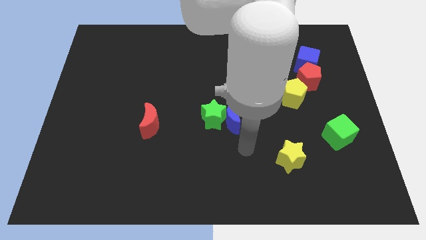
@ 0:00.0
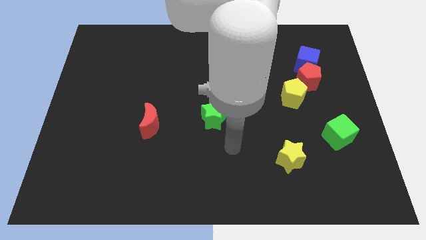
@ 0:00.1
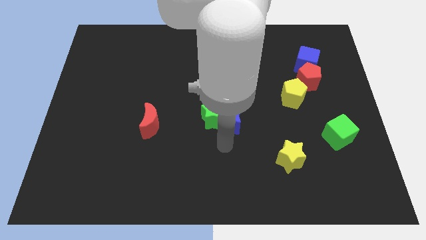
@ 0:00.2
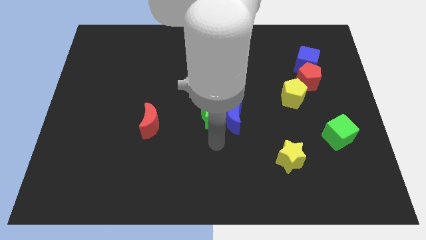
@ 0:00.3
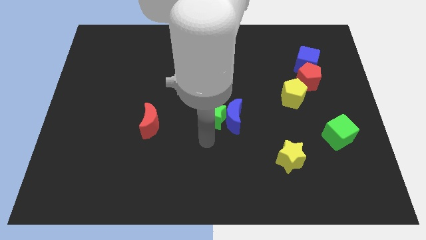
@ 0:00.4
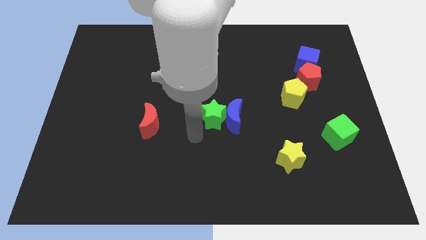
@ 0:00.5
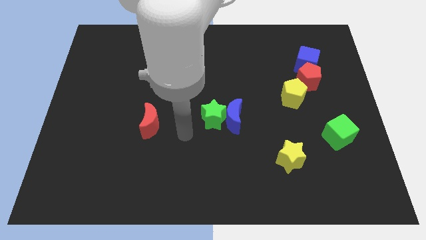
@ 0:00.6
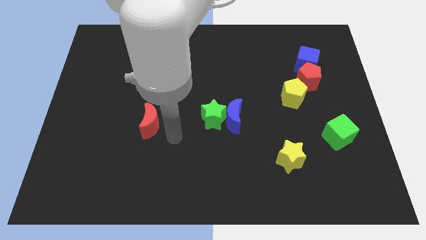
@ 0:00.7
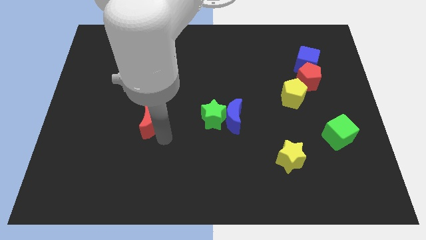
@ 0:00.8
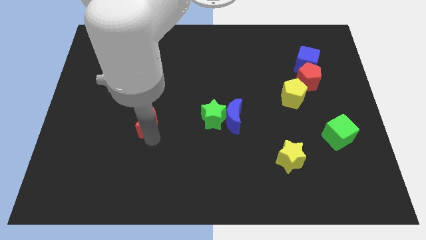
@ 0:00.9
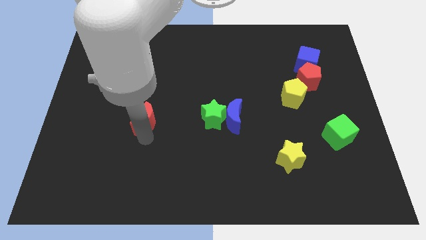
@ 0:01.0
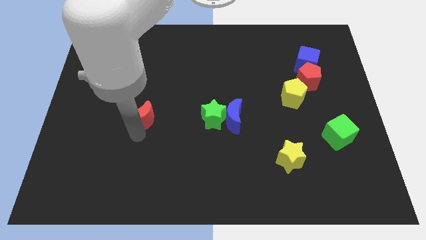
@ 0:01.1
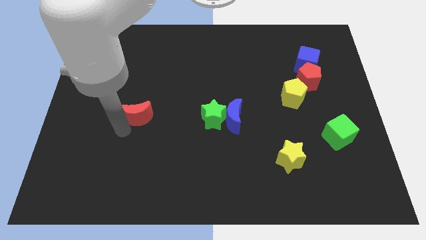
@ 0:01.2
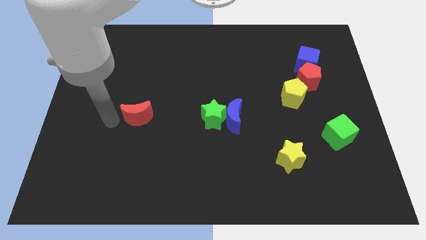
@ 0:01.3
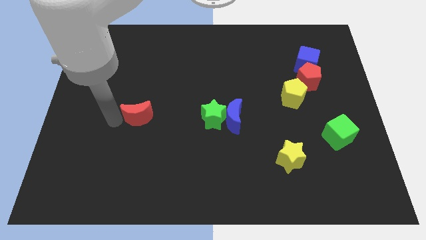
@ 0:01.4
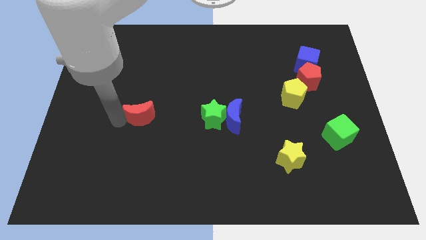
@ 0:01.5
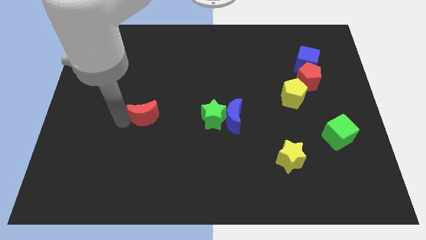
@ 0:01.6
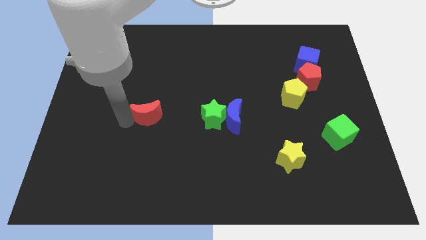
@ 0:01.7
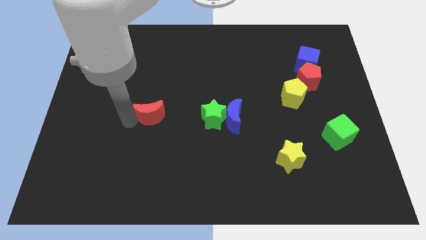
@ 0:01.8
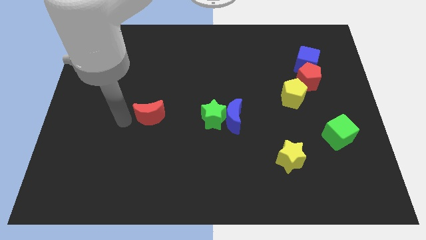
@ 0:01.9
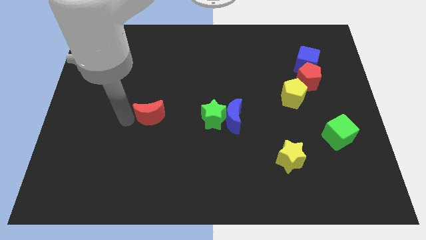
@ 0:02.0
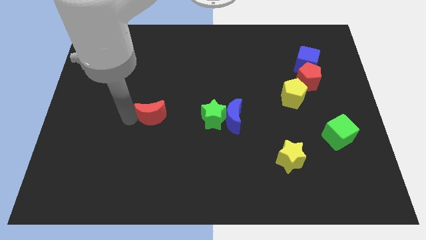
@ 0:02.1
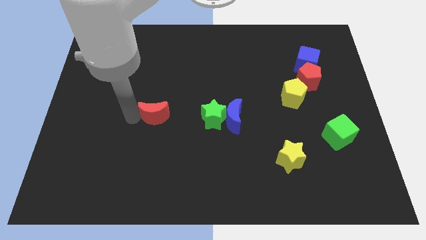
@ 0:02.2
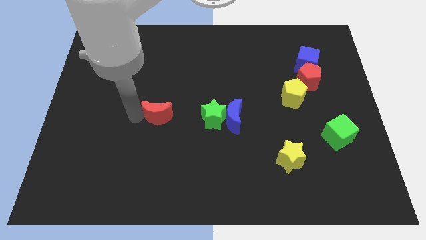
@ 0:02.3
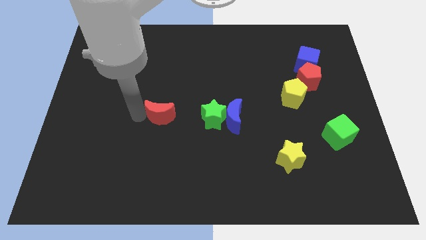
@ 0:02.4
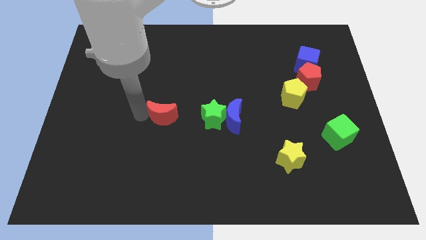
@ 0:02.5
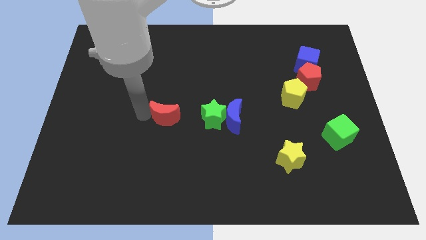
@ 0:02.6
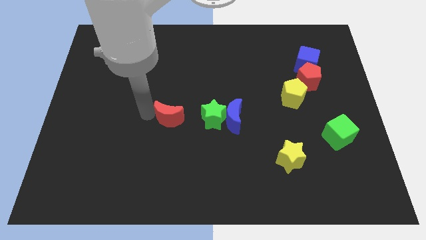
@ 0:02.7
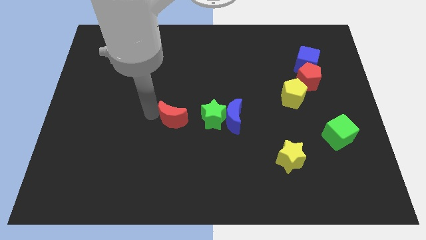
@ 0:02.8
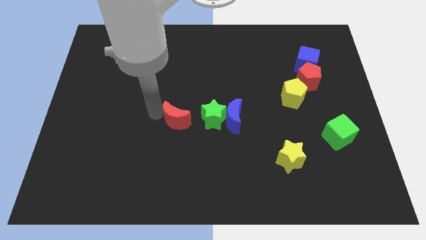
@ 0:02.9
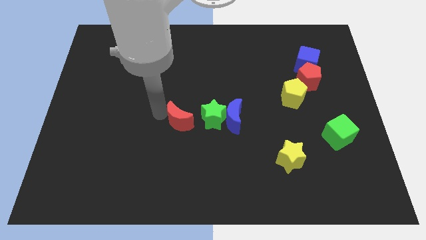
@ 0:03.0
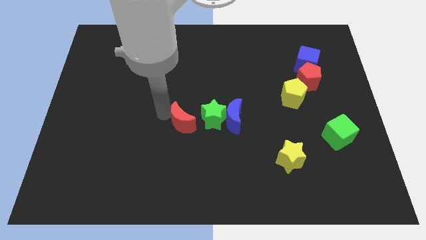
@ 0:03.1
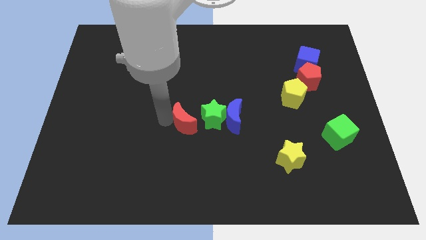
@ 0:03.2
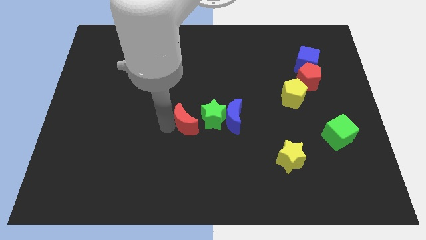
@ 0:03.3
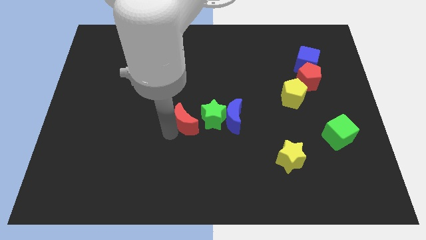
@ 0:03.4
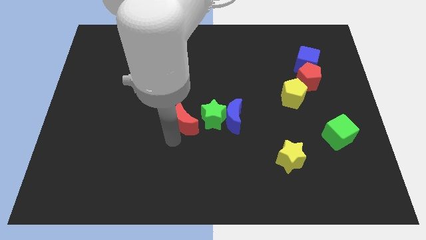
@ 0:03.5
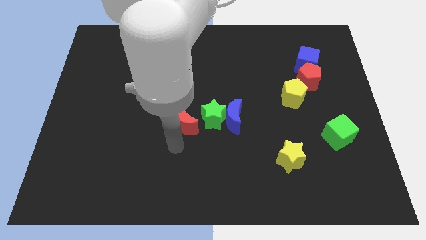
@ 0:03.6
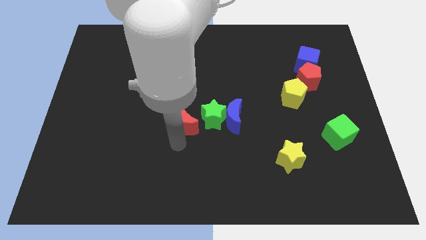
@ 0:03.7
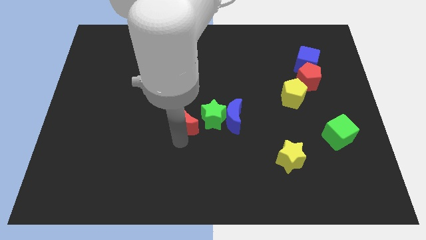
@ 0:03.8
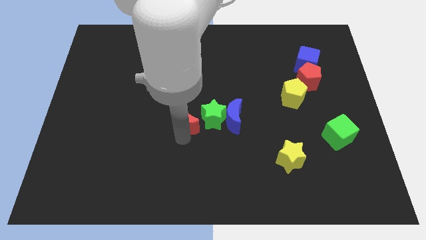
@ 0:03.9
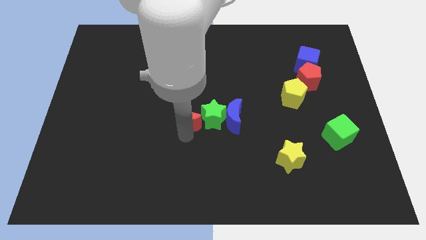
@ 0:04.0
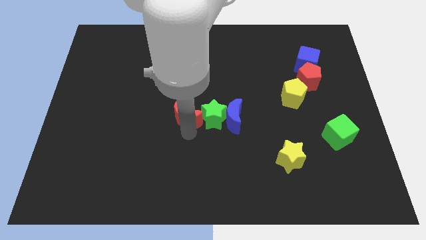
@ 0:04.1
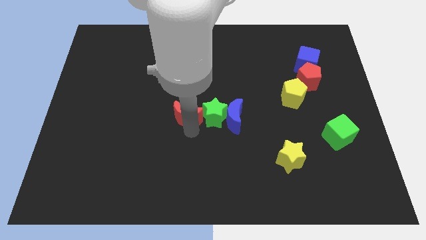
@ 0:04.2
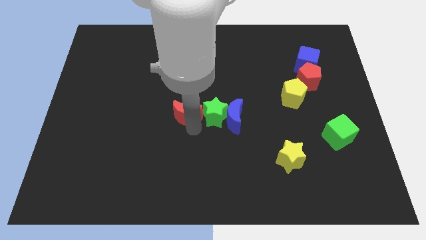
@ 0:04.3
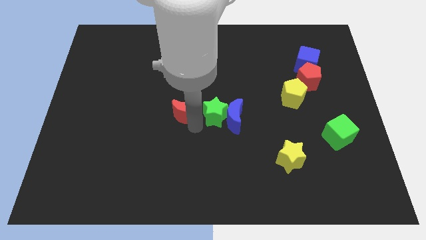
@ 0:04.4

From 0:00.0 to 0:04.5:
push the red moon up and to the right diagonally a little

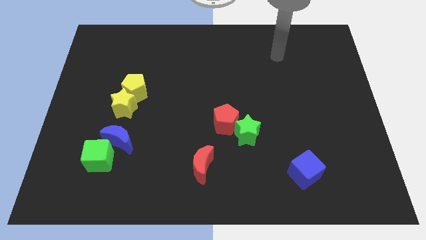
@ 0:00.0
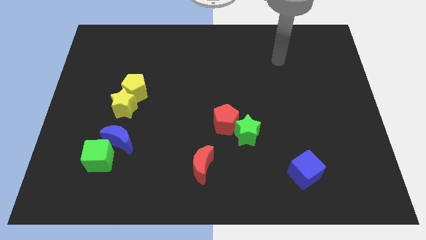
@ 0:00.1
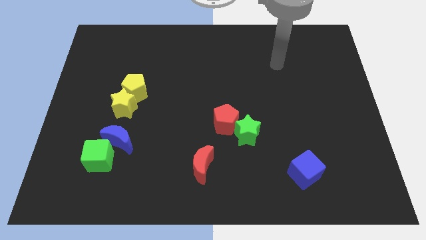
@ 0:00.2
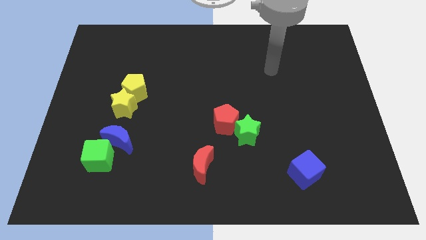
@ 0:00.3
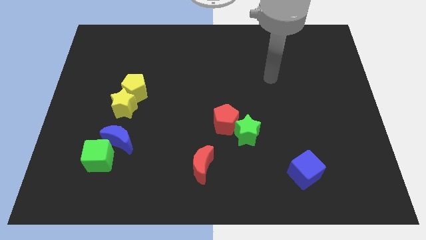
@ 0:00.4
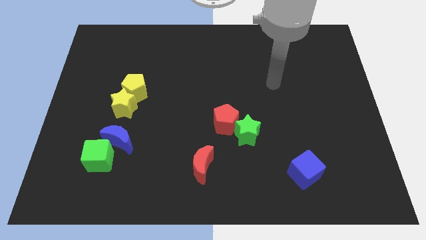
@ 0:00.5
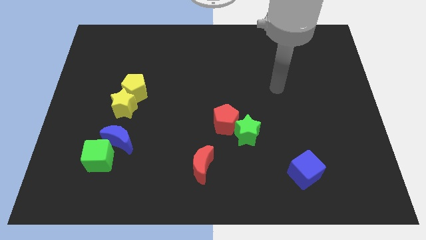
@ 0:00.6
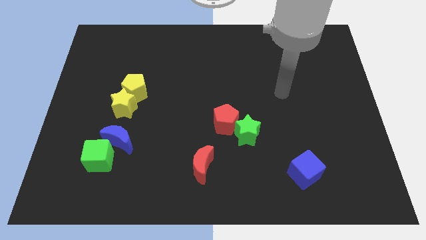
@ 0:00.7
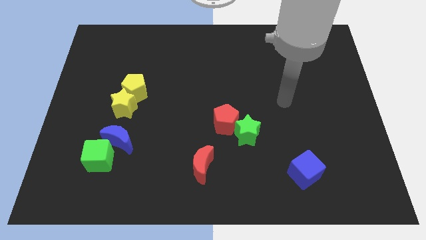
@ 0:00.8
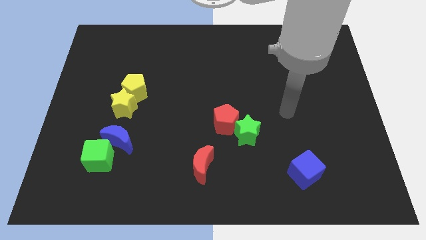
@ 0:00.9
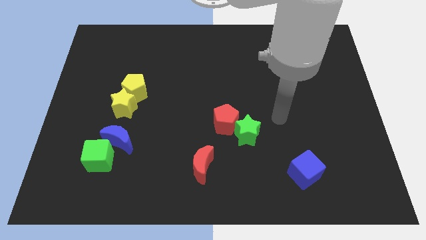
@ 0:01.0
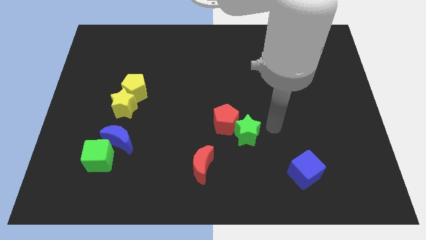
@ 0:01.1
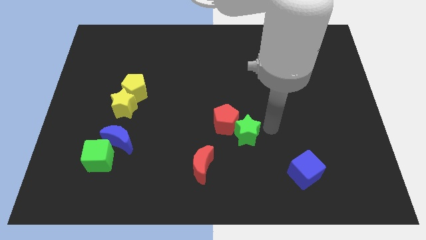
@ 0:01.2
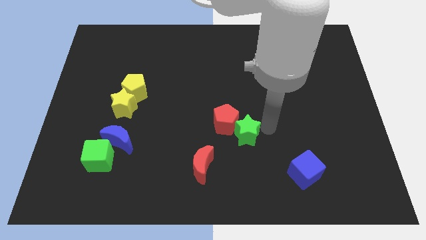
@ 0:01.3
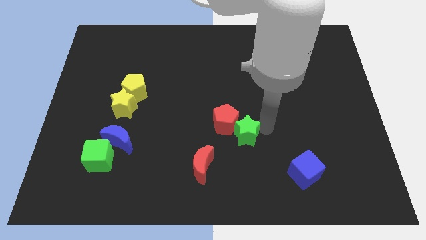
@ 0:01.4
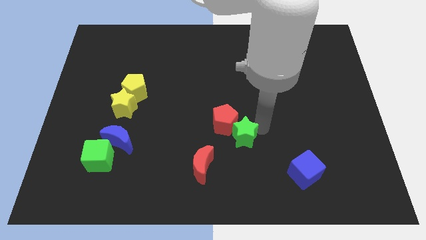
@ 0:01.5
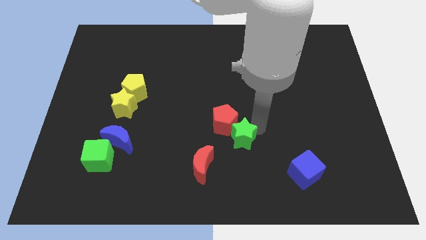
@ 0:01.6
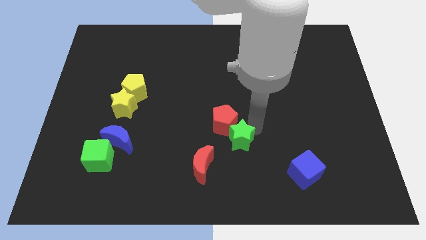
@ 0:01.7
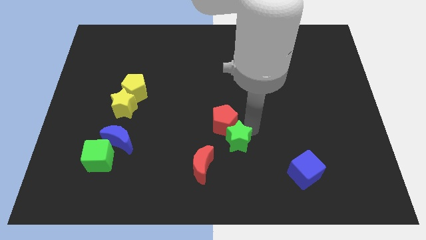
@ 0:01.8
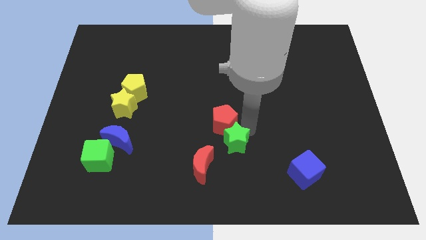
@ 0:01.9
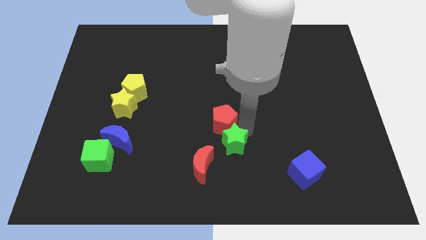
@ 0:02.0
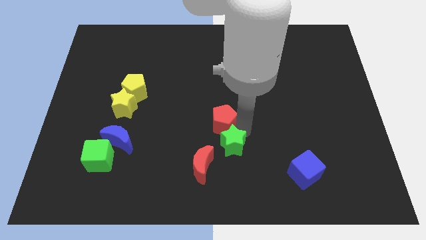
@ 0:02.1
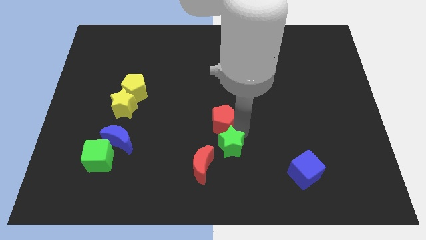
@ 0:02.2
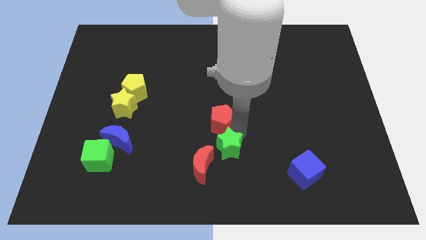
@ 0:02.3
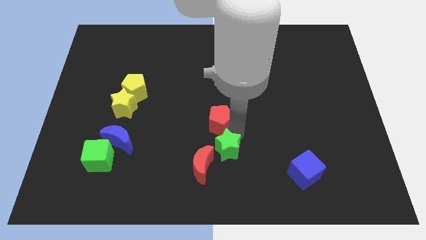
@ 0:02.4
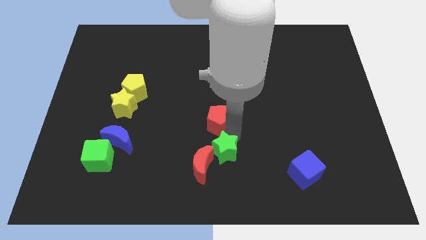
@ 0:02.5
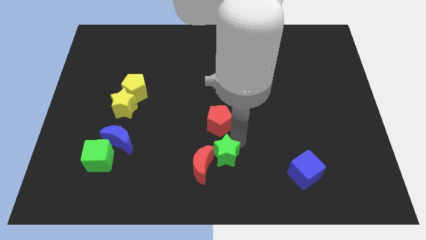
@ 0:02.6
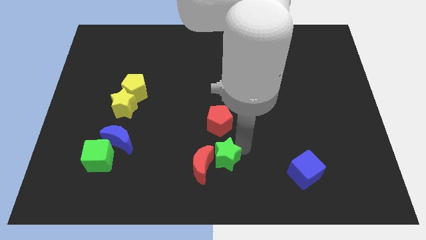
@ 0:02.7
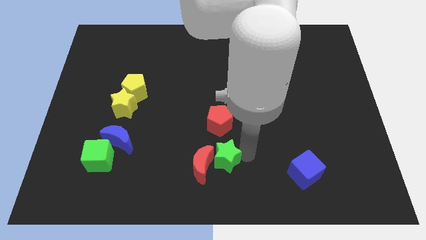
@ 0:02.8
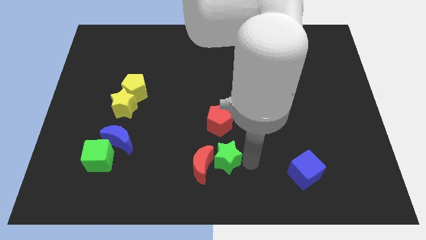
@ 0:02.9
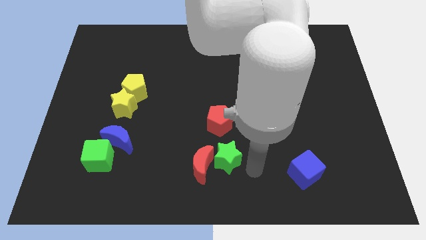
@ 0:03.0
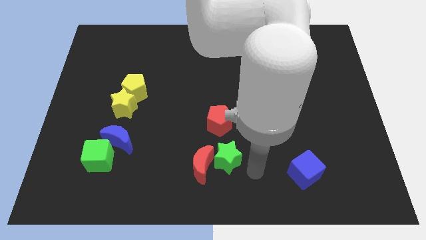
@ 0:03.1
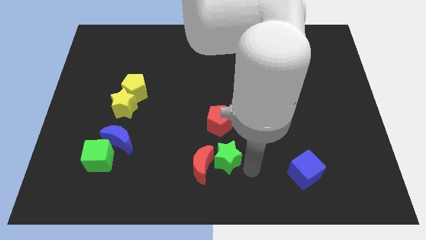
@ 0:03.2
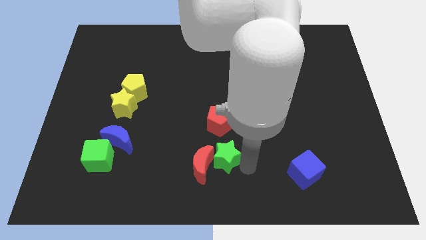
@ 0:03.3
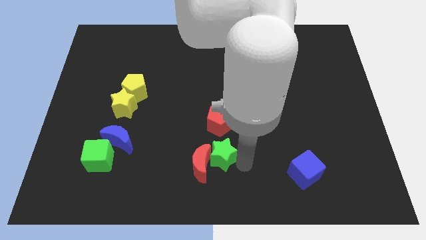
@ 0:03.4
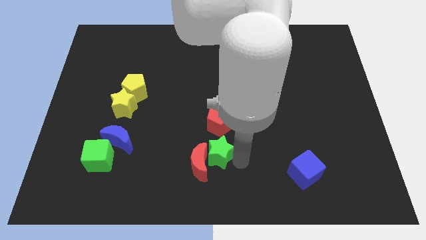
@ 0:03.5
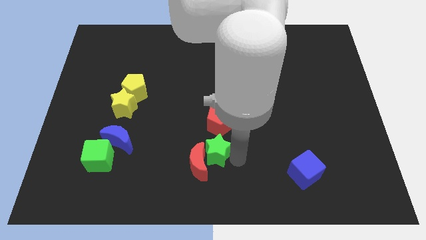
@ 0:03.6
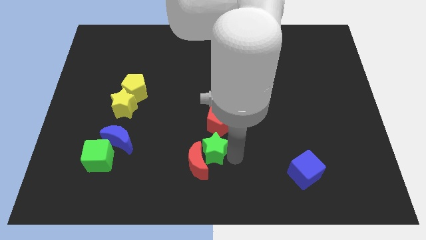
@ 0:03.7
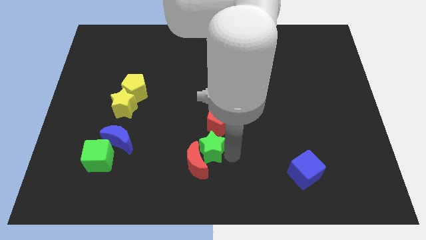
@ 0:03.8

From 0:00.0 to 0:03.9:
push the green star to the left a bit
